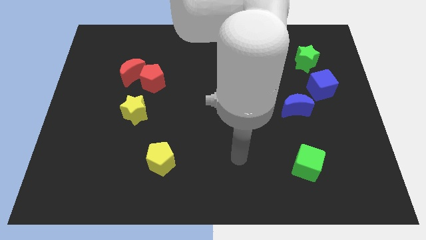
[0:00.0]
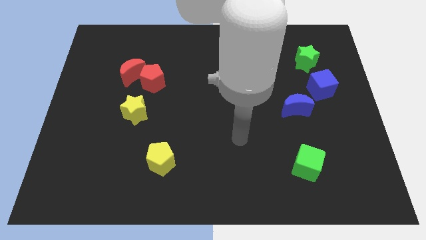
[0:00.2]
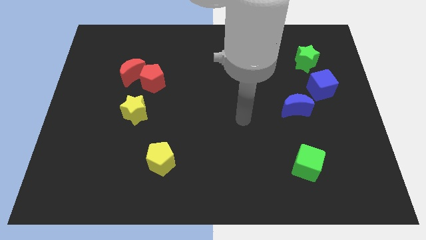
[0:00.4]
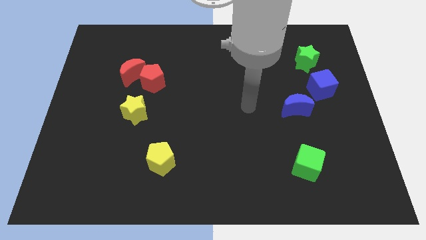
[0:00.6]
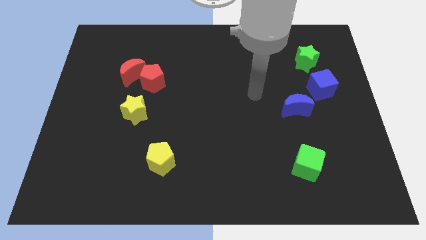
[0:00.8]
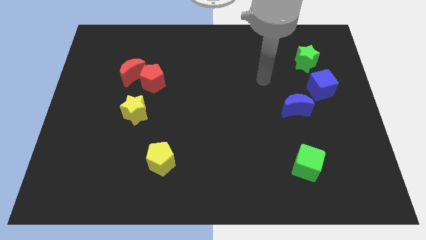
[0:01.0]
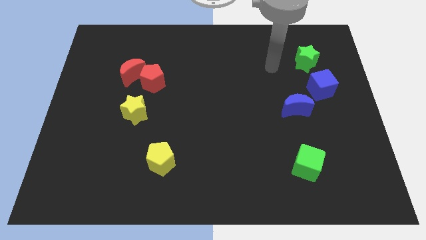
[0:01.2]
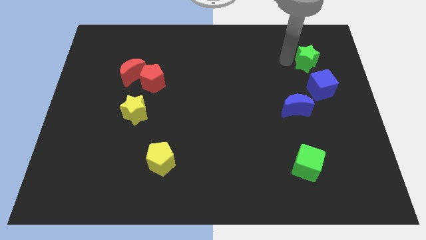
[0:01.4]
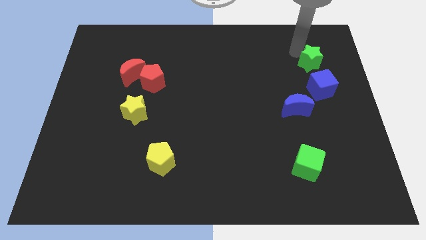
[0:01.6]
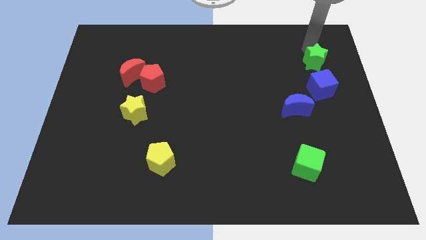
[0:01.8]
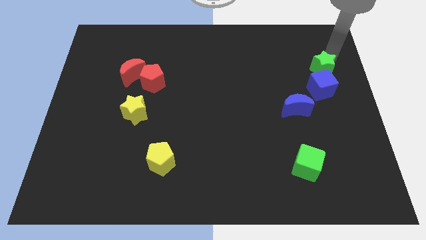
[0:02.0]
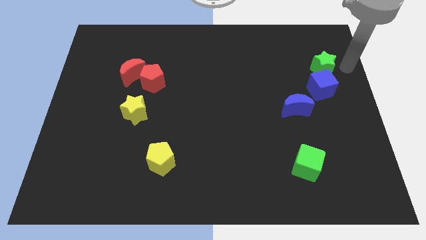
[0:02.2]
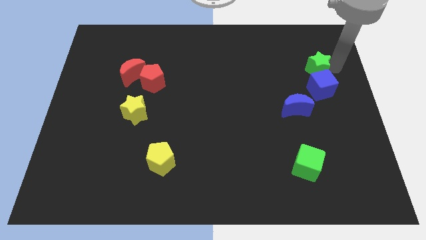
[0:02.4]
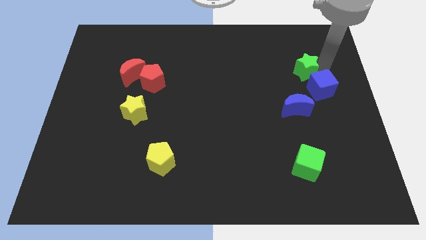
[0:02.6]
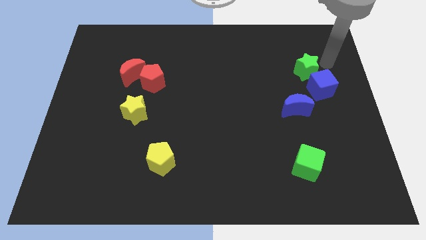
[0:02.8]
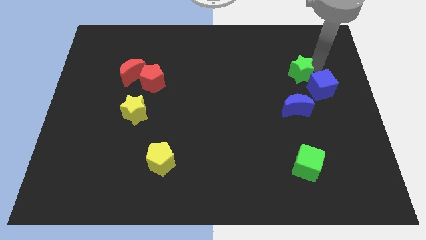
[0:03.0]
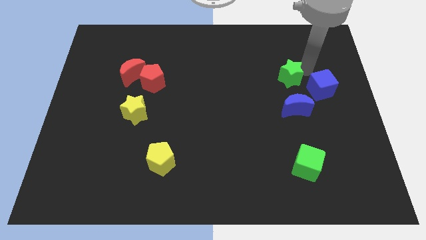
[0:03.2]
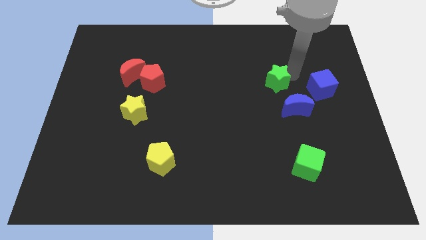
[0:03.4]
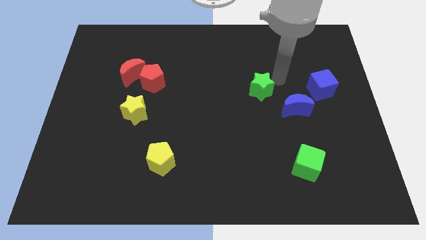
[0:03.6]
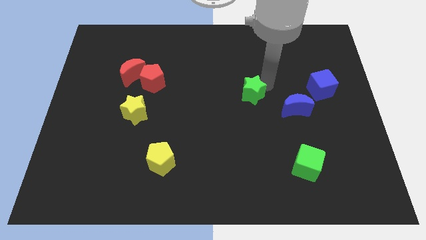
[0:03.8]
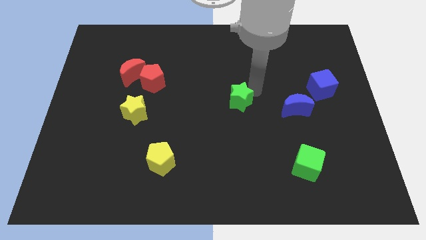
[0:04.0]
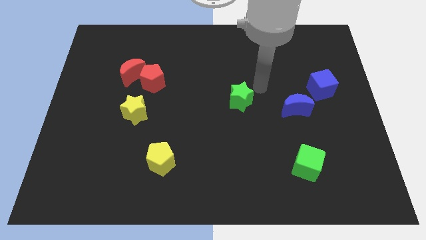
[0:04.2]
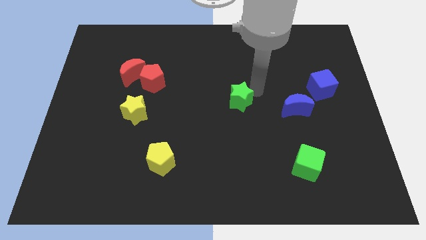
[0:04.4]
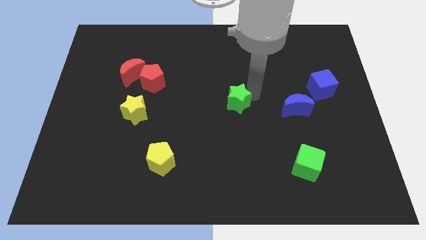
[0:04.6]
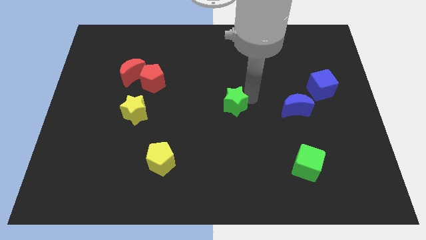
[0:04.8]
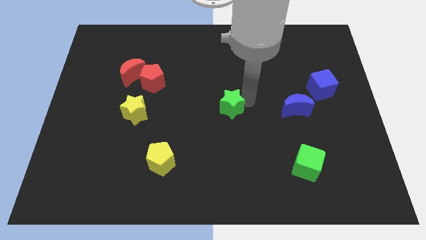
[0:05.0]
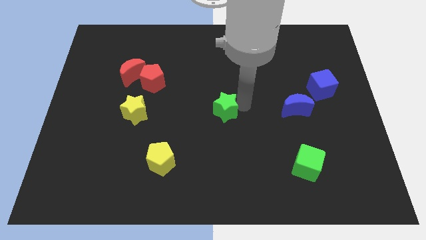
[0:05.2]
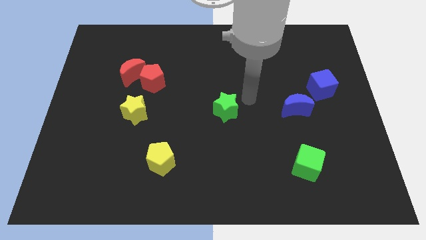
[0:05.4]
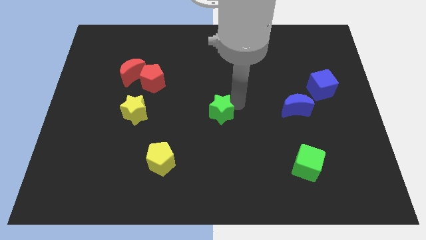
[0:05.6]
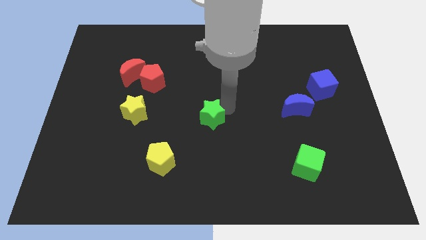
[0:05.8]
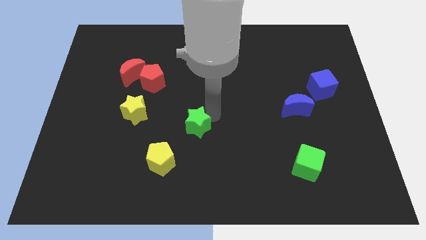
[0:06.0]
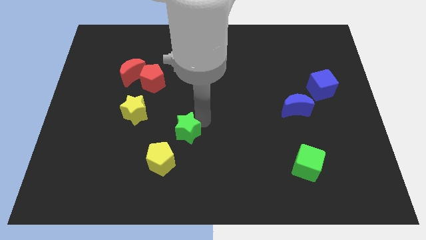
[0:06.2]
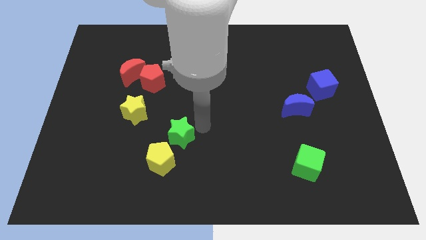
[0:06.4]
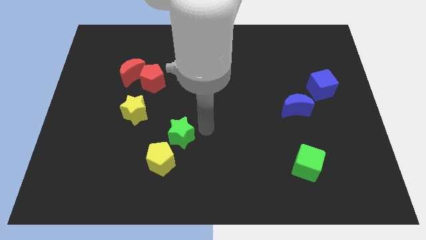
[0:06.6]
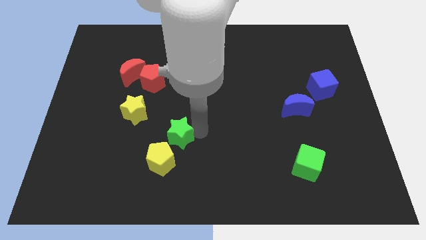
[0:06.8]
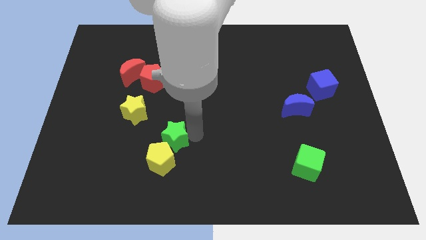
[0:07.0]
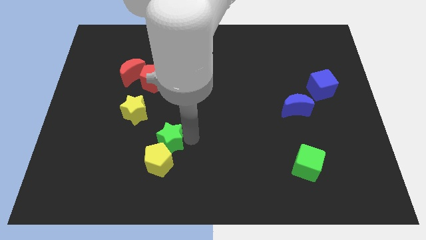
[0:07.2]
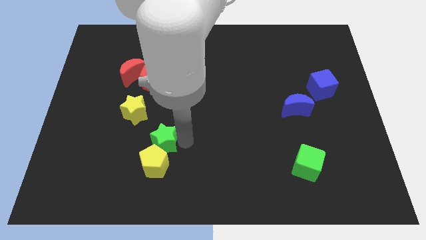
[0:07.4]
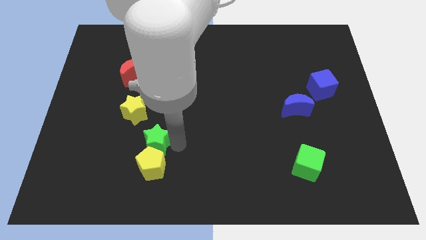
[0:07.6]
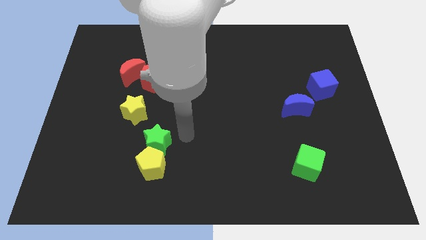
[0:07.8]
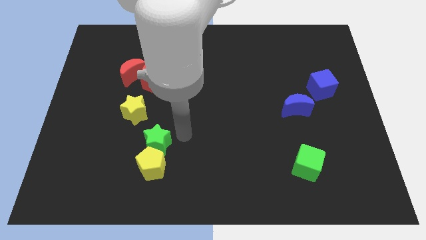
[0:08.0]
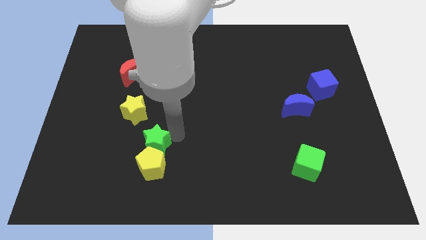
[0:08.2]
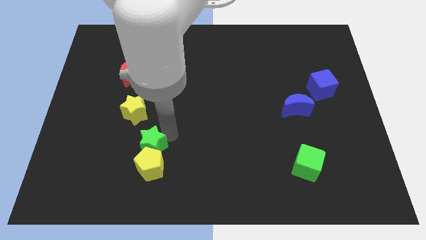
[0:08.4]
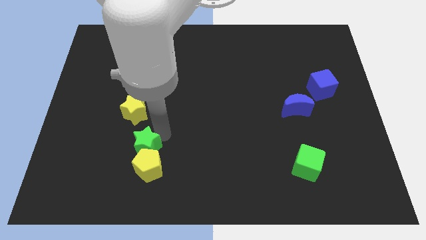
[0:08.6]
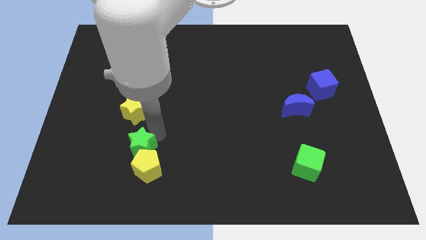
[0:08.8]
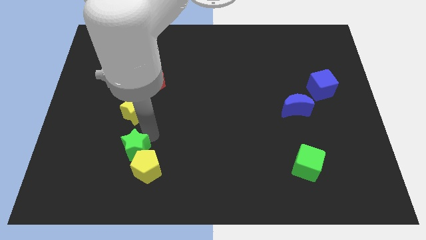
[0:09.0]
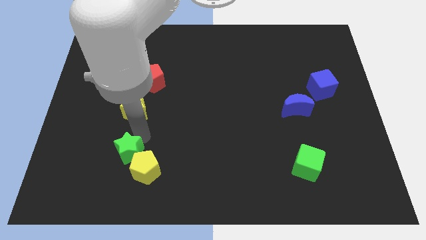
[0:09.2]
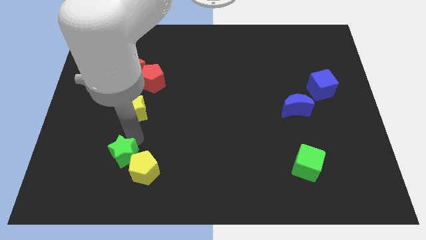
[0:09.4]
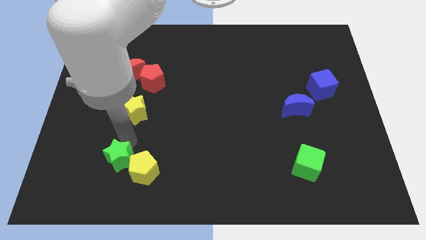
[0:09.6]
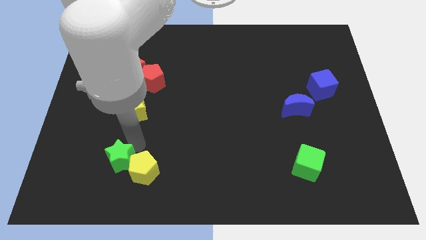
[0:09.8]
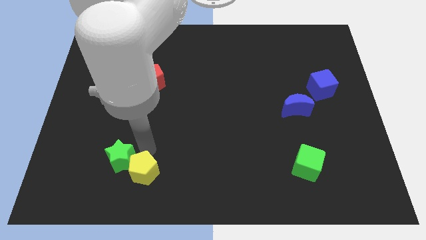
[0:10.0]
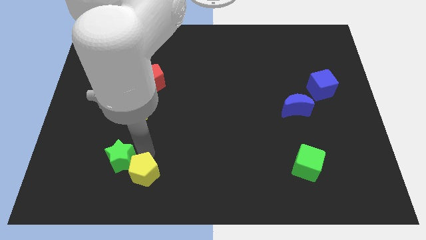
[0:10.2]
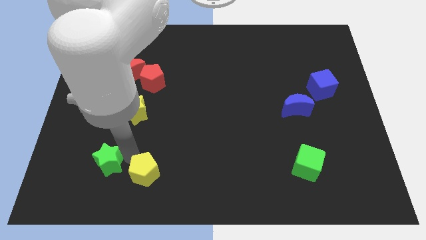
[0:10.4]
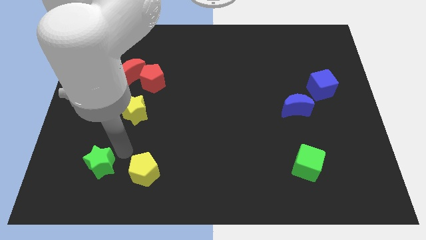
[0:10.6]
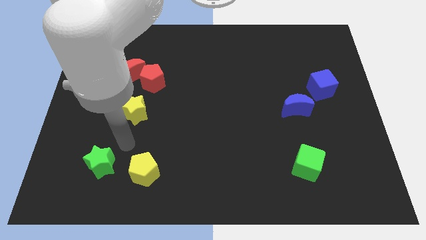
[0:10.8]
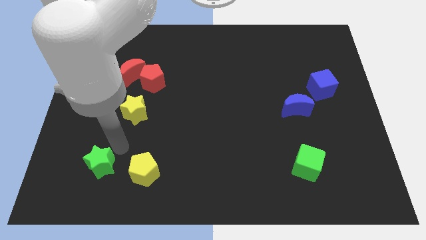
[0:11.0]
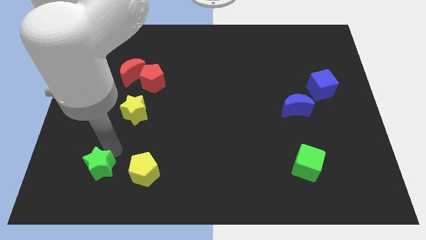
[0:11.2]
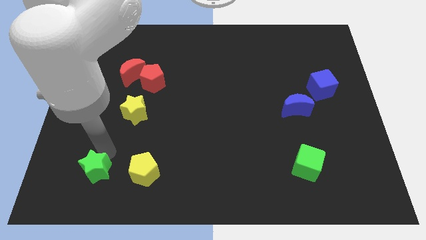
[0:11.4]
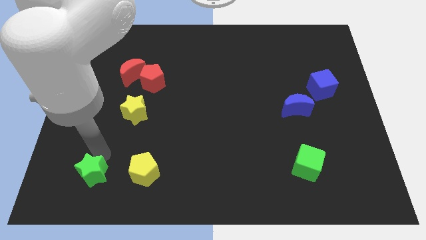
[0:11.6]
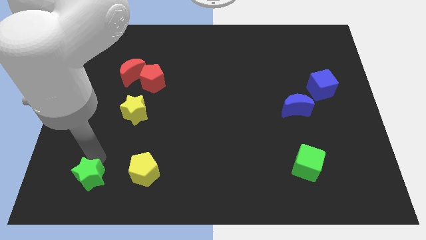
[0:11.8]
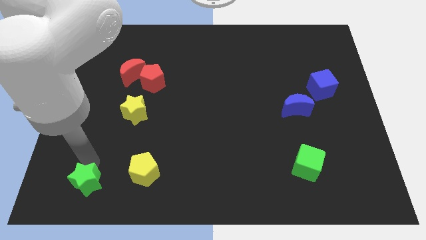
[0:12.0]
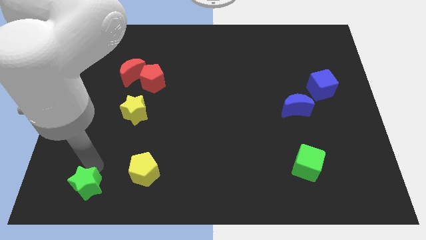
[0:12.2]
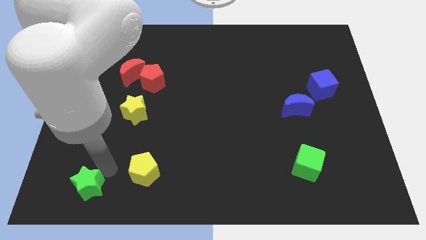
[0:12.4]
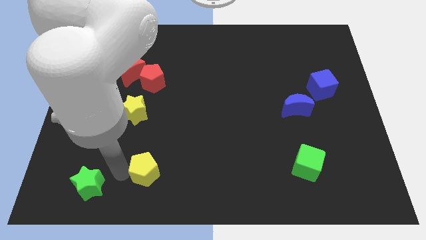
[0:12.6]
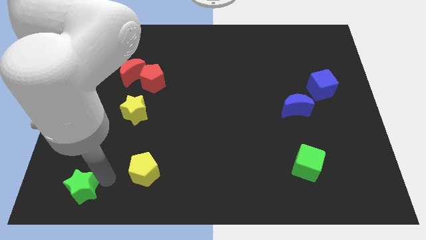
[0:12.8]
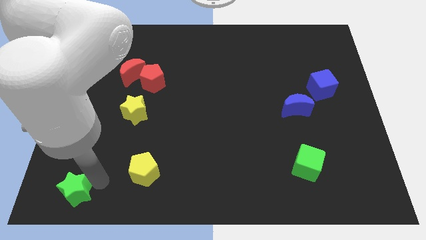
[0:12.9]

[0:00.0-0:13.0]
slide the green star to the lower left corner
